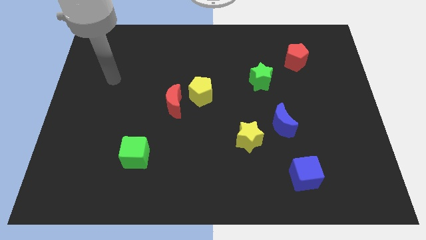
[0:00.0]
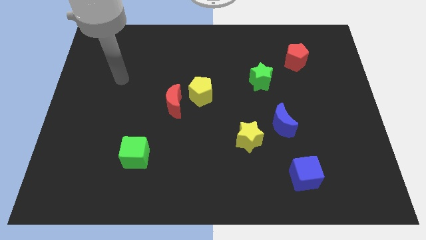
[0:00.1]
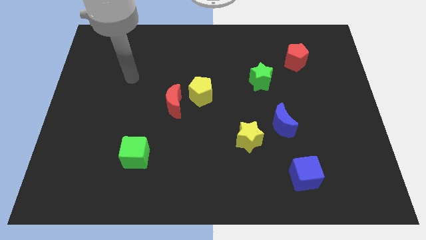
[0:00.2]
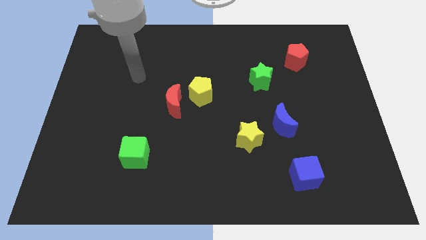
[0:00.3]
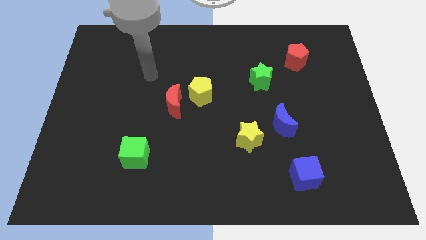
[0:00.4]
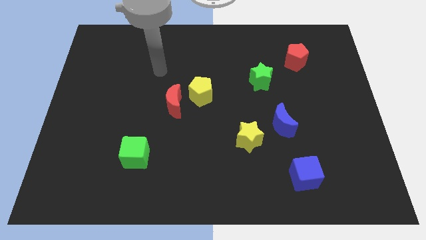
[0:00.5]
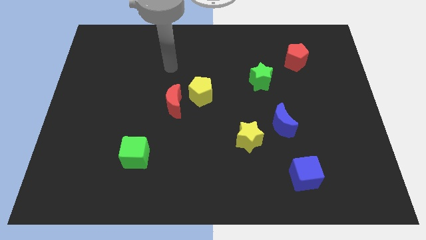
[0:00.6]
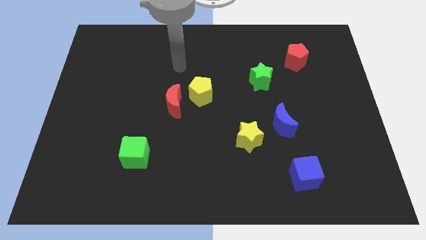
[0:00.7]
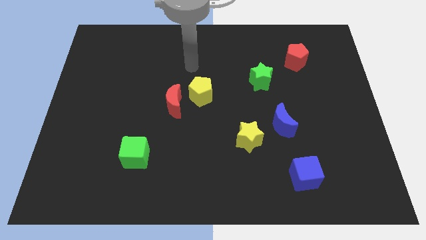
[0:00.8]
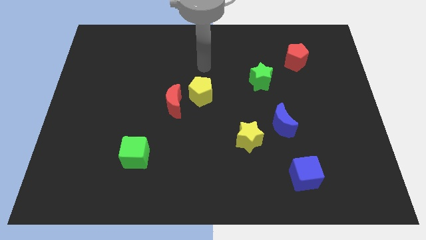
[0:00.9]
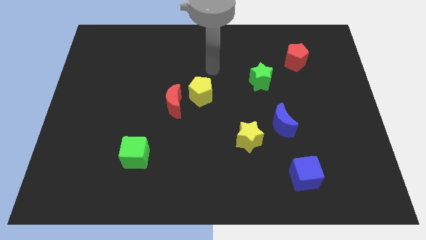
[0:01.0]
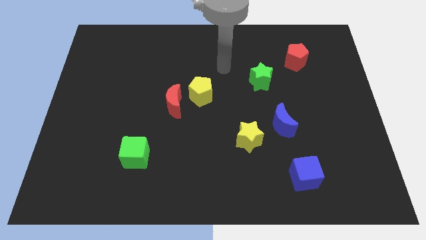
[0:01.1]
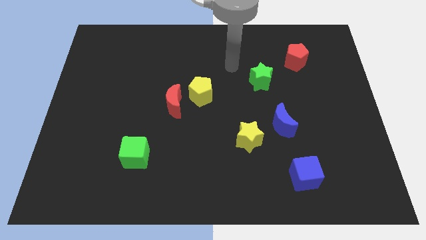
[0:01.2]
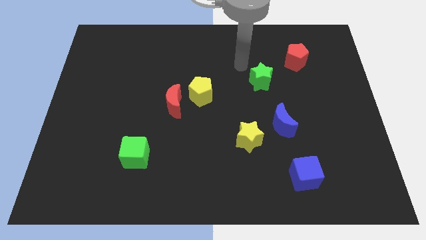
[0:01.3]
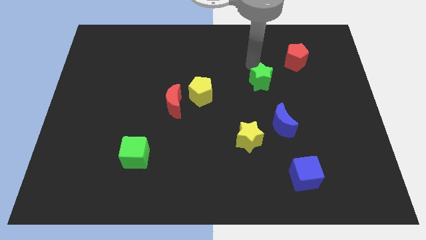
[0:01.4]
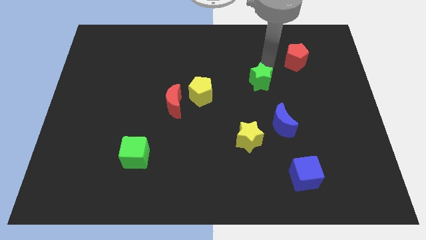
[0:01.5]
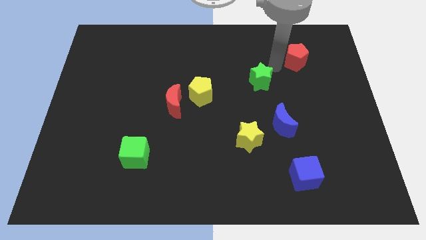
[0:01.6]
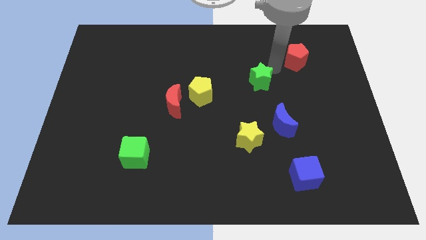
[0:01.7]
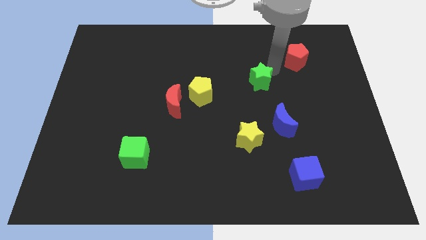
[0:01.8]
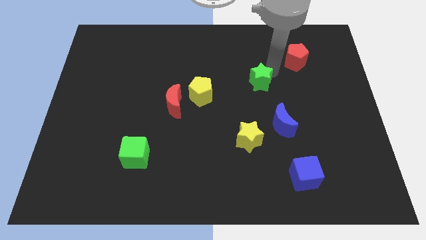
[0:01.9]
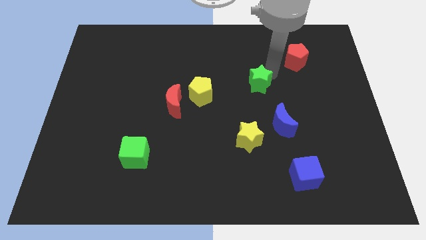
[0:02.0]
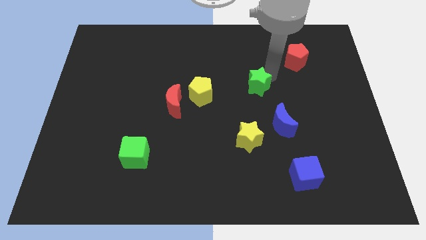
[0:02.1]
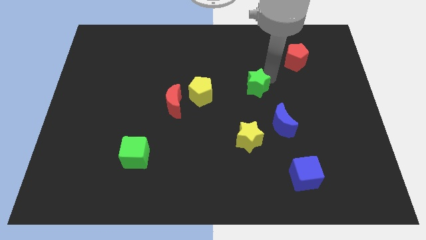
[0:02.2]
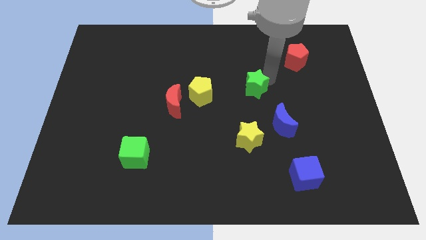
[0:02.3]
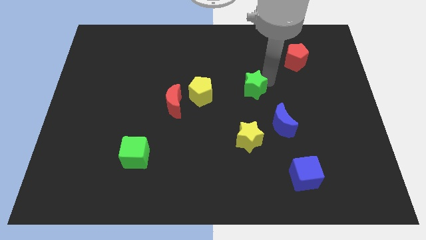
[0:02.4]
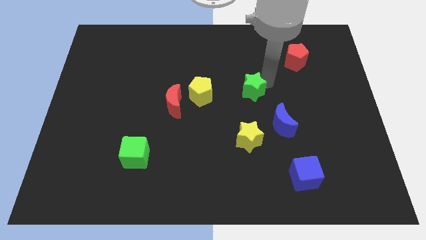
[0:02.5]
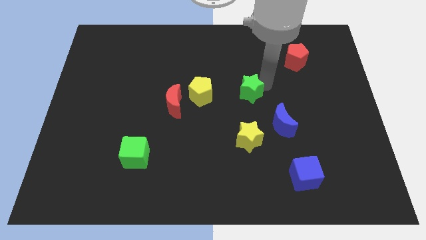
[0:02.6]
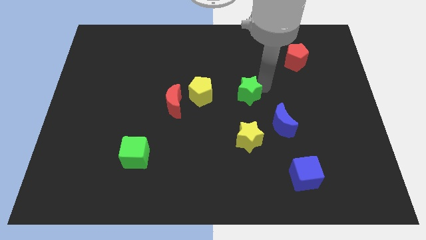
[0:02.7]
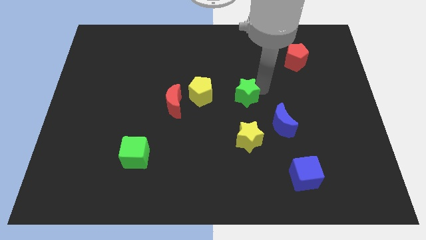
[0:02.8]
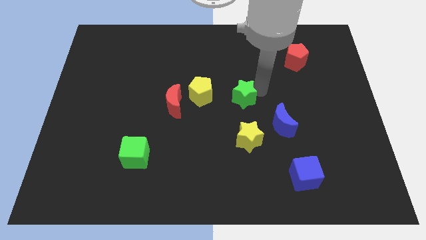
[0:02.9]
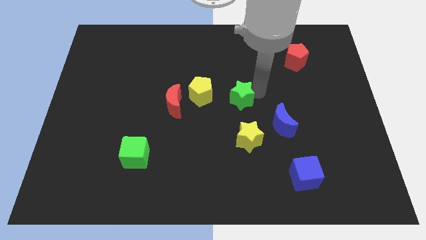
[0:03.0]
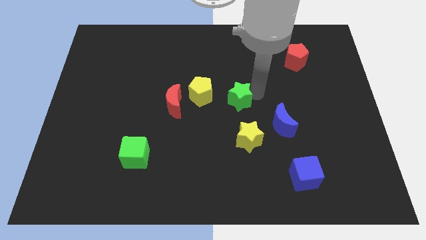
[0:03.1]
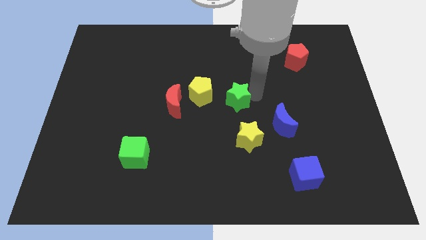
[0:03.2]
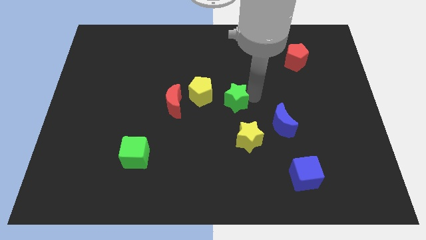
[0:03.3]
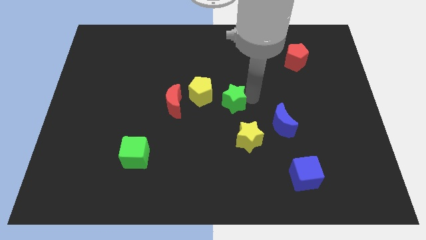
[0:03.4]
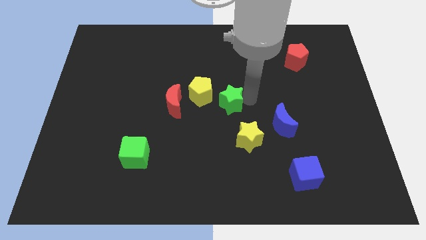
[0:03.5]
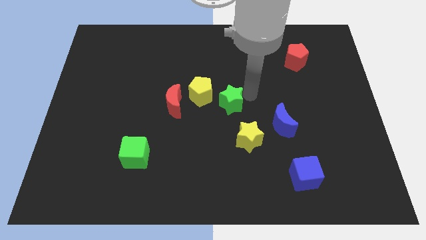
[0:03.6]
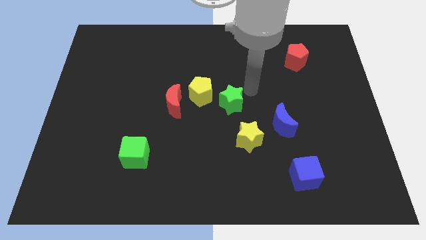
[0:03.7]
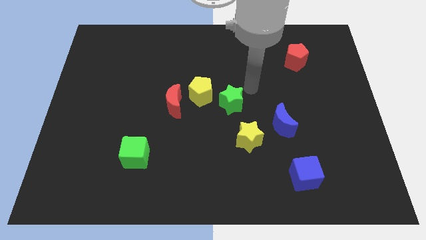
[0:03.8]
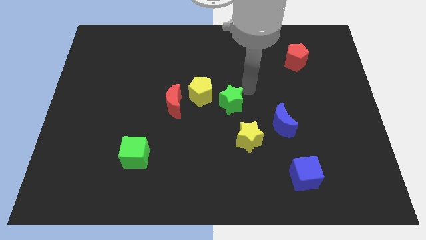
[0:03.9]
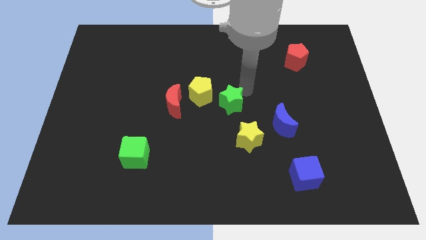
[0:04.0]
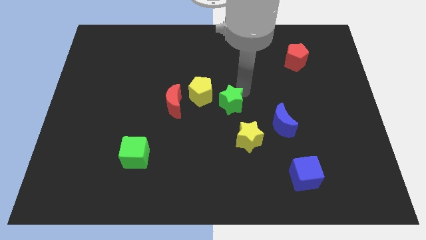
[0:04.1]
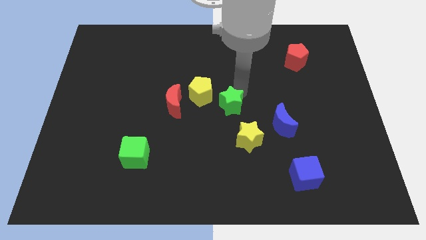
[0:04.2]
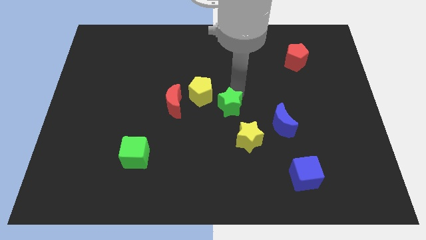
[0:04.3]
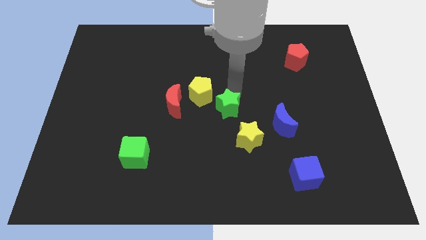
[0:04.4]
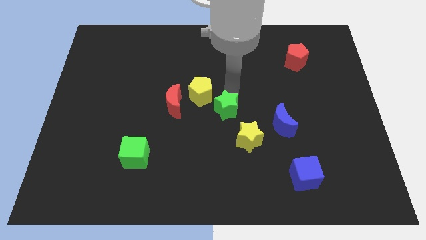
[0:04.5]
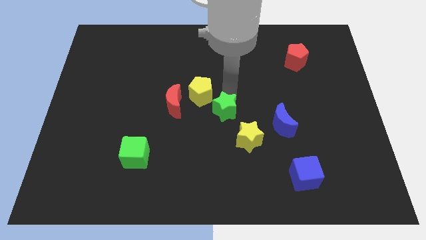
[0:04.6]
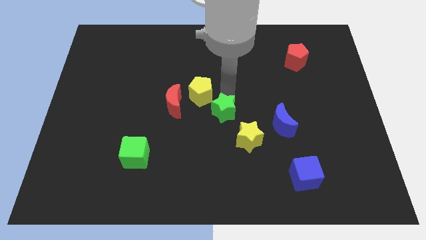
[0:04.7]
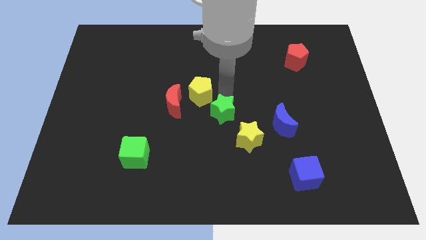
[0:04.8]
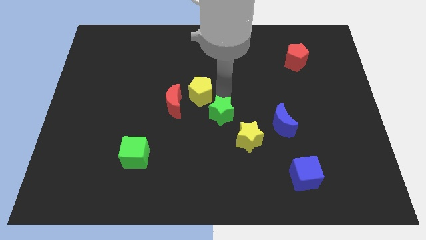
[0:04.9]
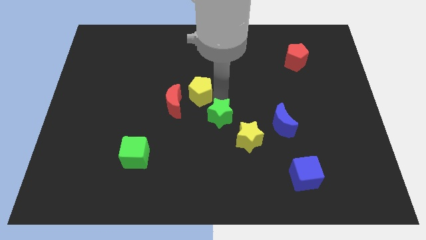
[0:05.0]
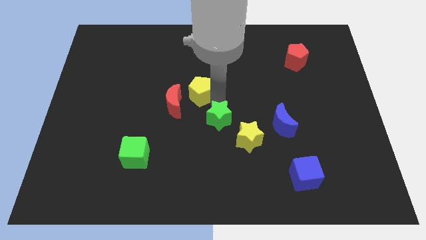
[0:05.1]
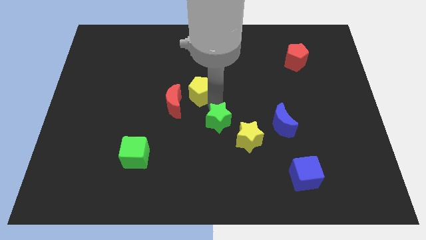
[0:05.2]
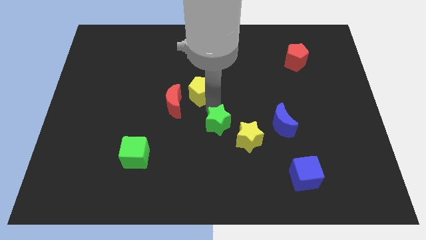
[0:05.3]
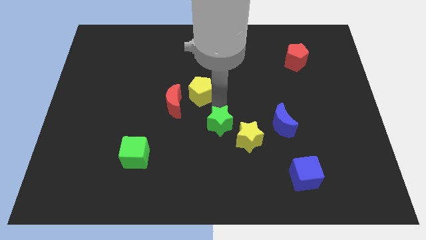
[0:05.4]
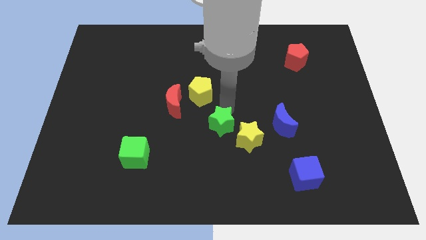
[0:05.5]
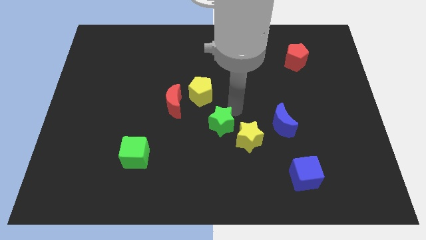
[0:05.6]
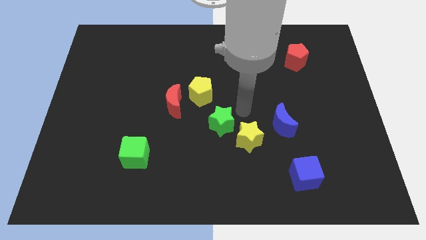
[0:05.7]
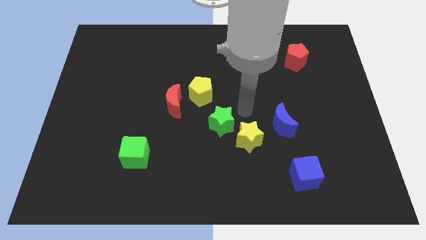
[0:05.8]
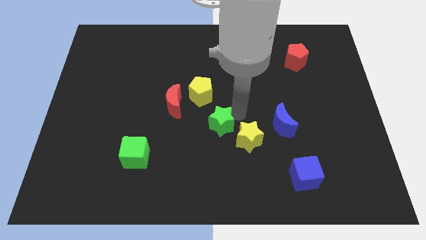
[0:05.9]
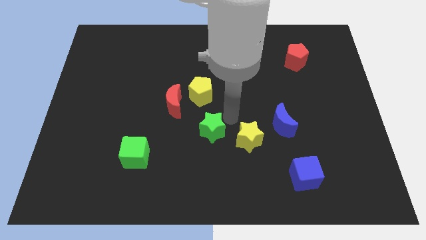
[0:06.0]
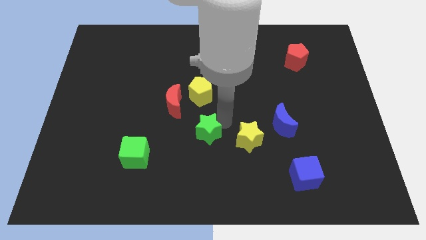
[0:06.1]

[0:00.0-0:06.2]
move the green star diagonally down and left

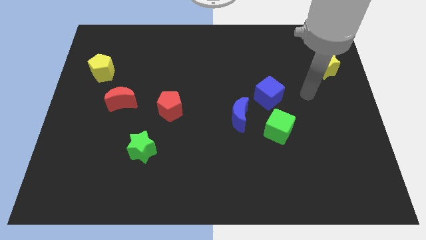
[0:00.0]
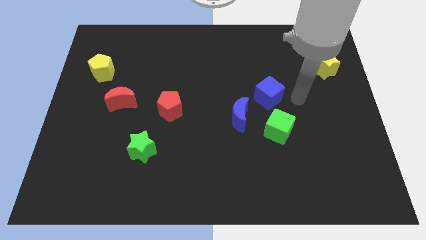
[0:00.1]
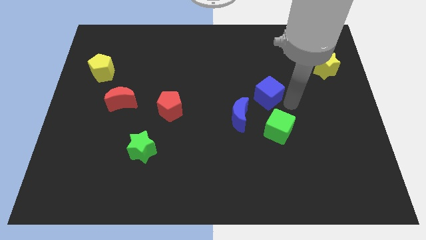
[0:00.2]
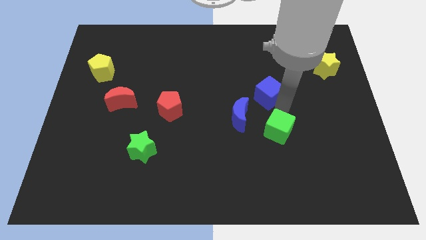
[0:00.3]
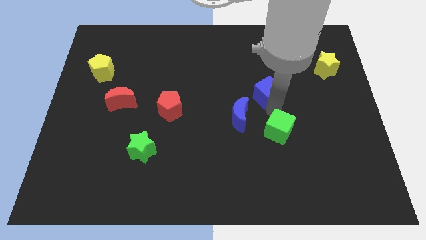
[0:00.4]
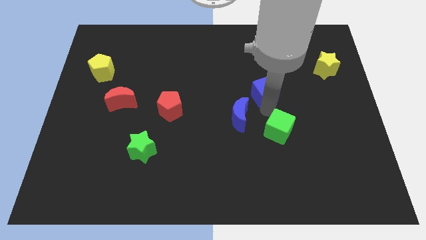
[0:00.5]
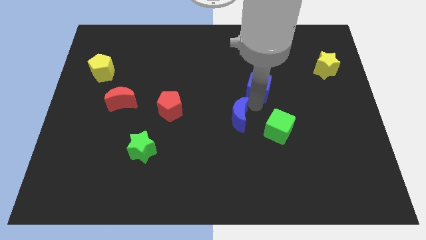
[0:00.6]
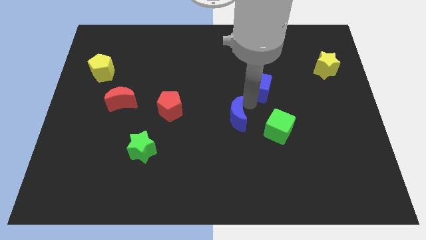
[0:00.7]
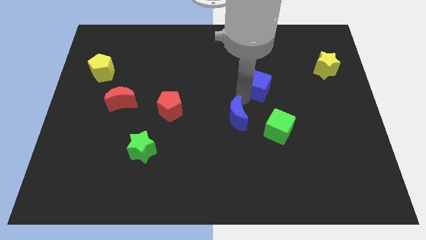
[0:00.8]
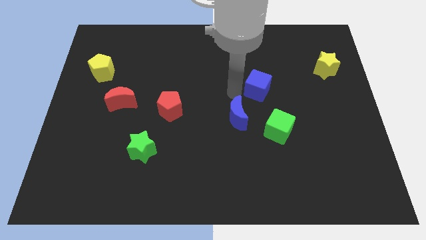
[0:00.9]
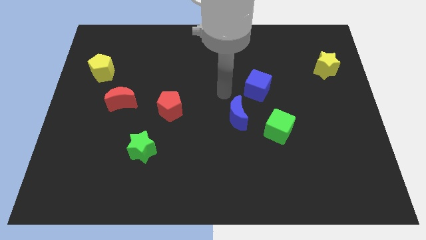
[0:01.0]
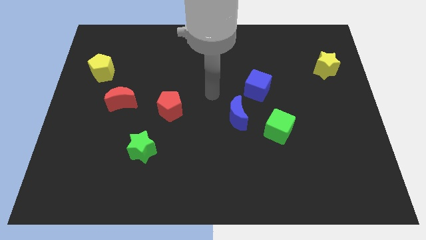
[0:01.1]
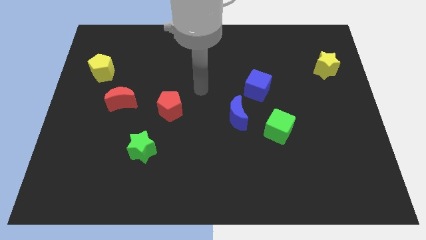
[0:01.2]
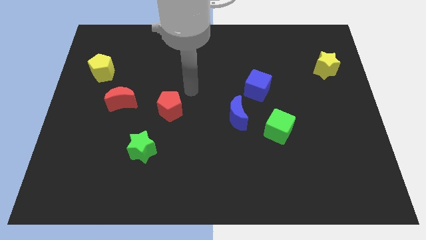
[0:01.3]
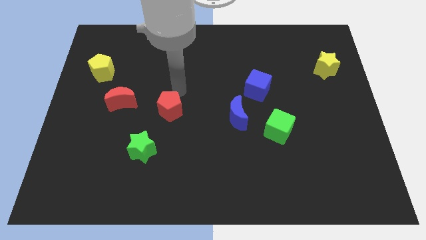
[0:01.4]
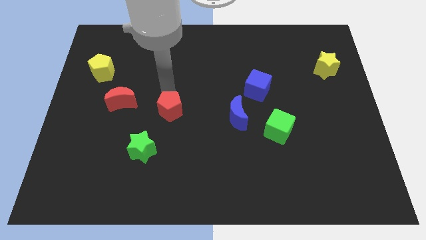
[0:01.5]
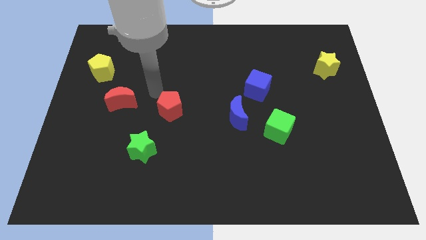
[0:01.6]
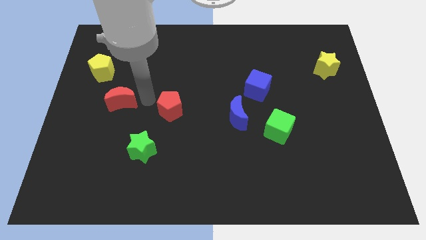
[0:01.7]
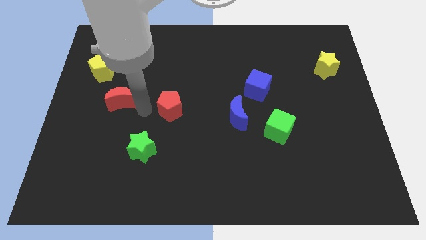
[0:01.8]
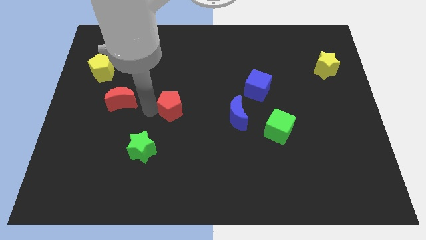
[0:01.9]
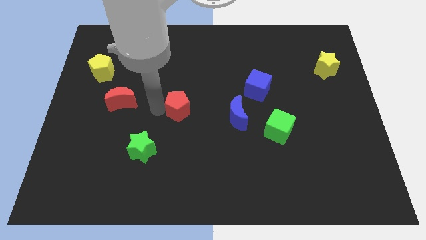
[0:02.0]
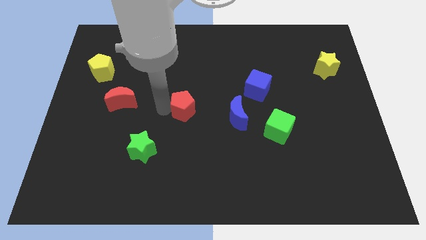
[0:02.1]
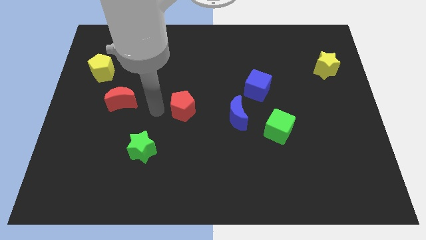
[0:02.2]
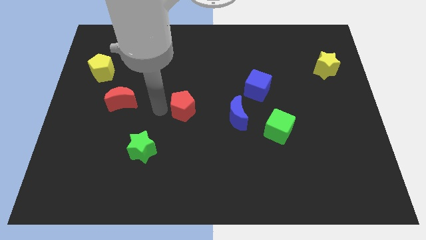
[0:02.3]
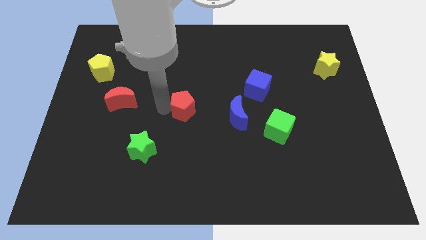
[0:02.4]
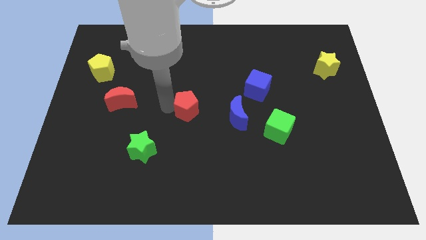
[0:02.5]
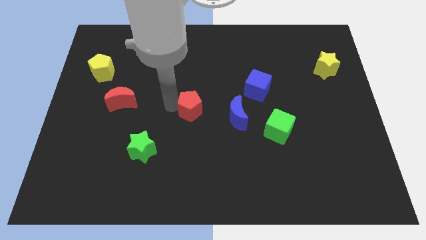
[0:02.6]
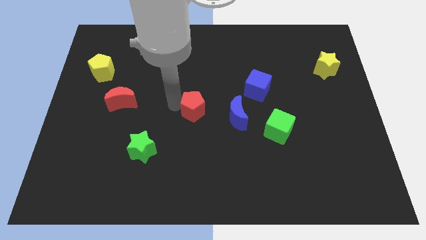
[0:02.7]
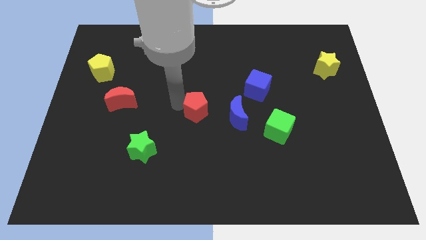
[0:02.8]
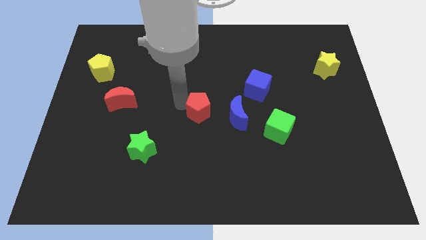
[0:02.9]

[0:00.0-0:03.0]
slide the red pentagon a bit to the right
